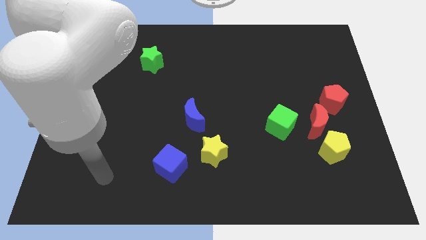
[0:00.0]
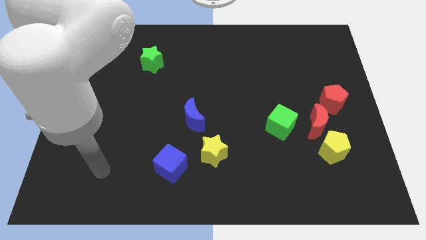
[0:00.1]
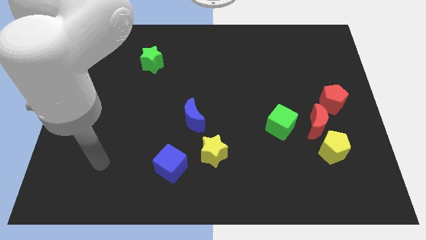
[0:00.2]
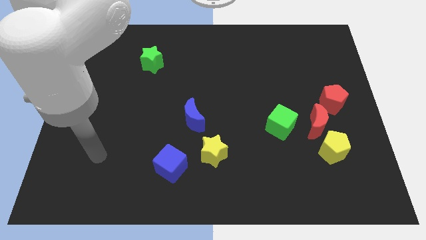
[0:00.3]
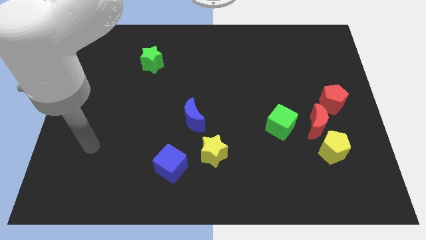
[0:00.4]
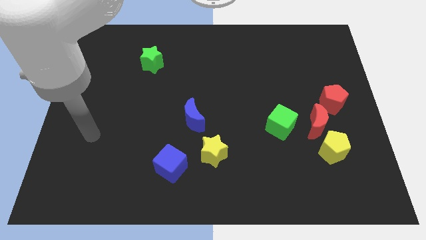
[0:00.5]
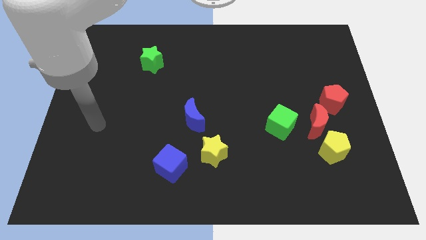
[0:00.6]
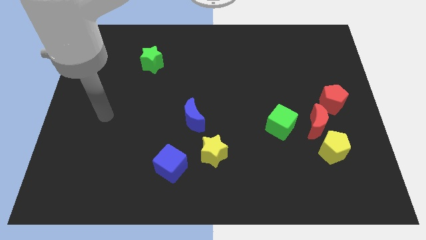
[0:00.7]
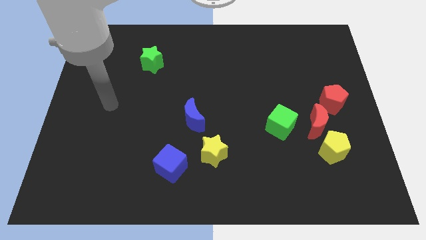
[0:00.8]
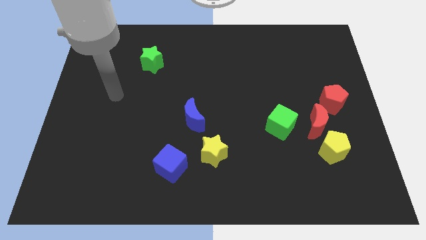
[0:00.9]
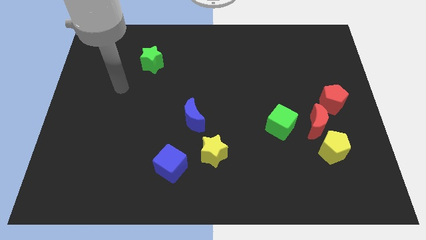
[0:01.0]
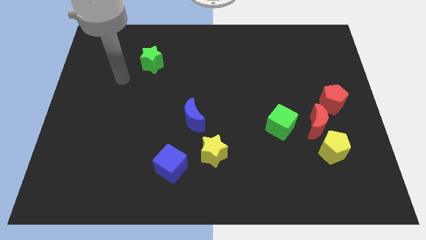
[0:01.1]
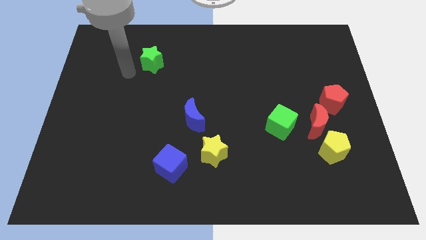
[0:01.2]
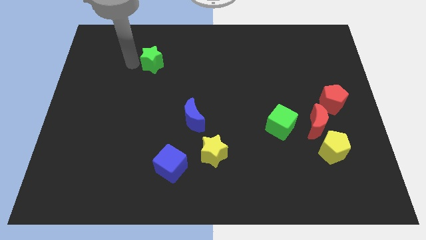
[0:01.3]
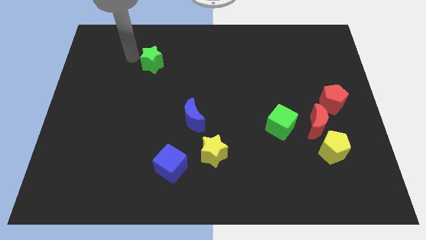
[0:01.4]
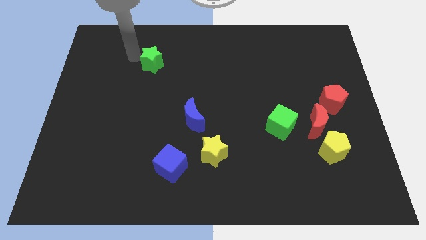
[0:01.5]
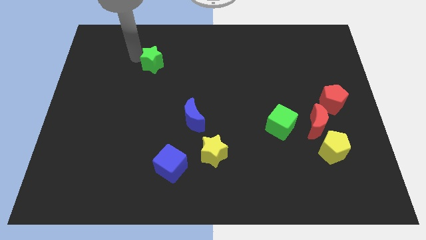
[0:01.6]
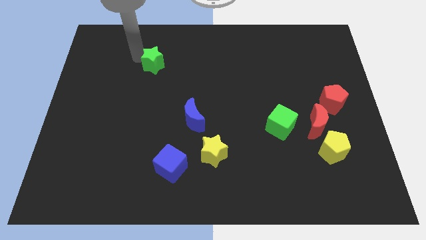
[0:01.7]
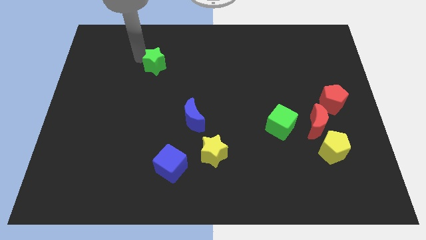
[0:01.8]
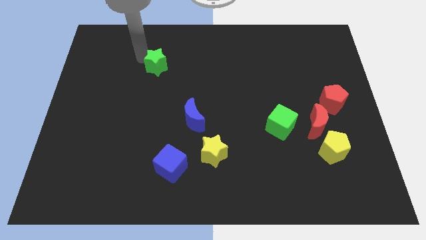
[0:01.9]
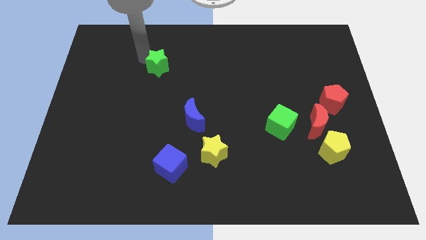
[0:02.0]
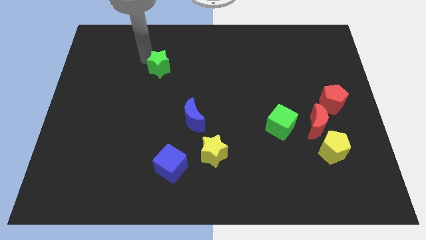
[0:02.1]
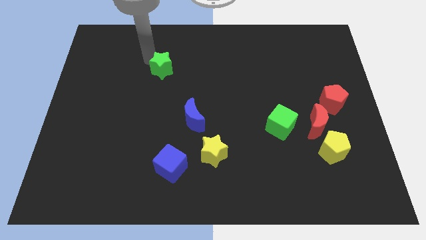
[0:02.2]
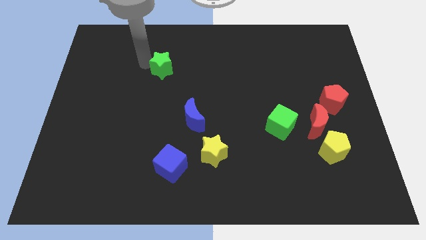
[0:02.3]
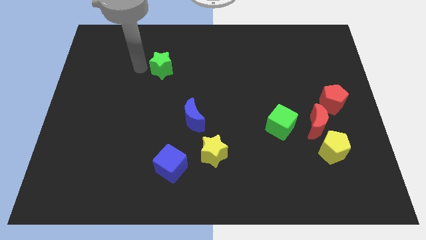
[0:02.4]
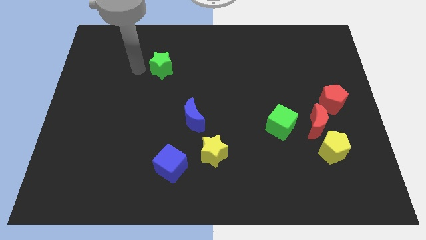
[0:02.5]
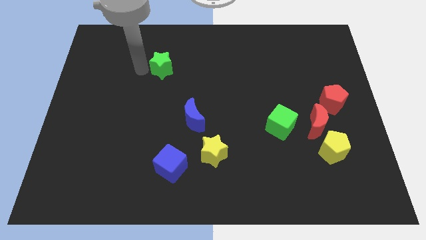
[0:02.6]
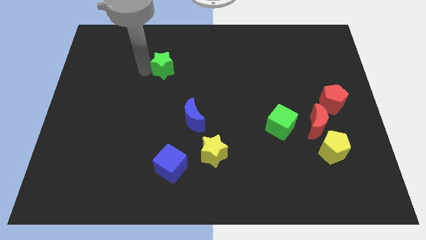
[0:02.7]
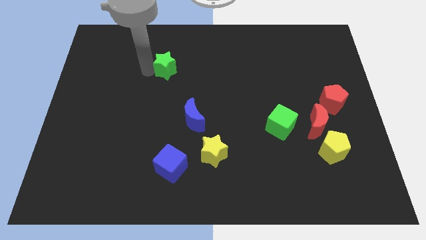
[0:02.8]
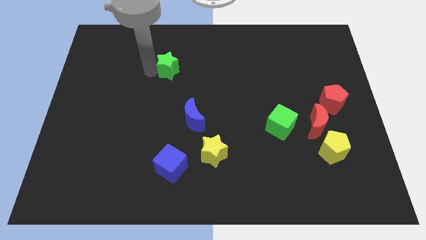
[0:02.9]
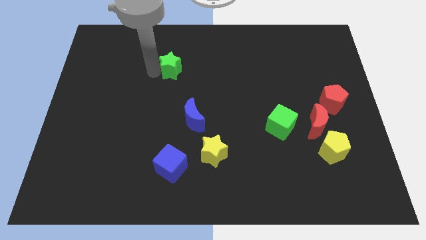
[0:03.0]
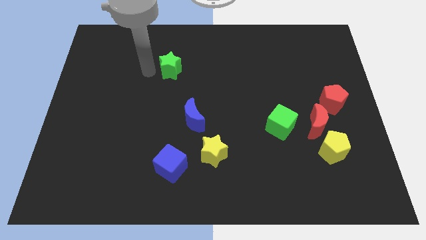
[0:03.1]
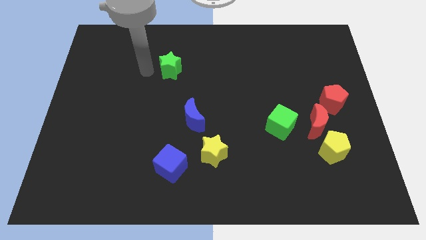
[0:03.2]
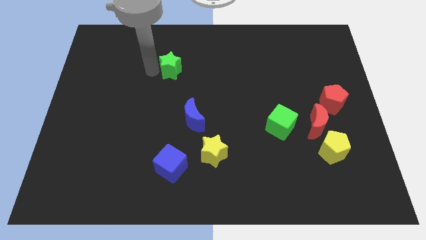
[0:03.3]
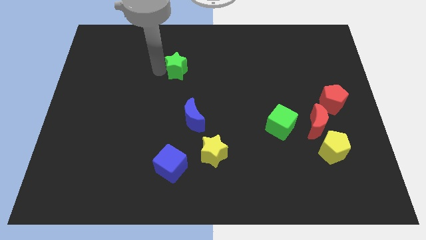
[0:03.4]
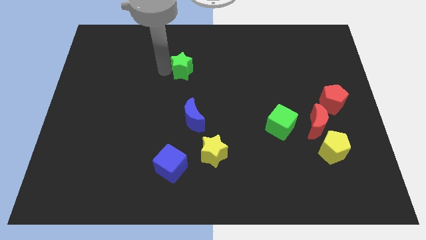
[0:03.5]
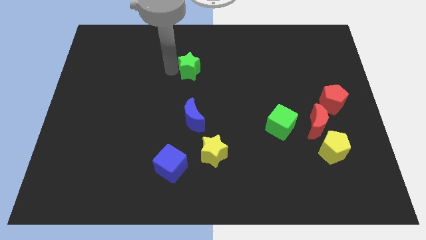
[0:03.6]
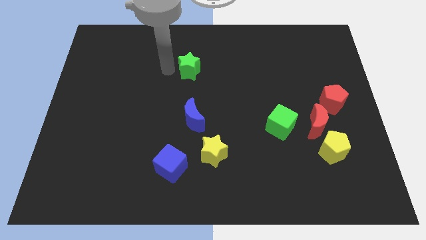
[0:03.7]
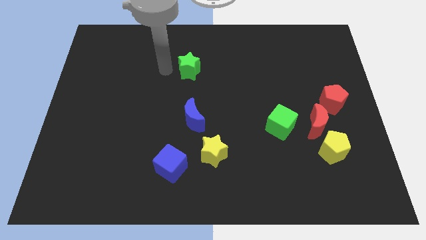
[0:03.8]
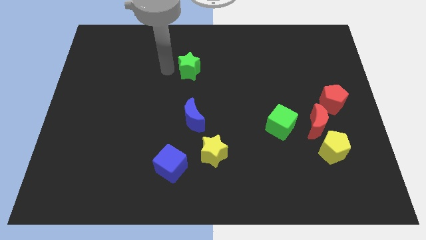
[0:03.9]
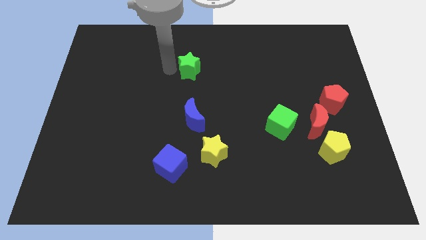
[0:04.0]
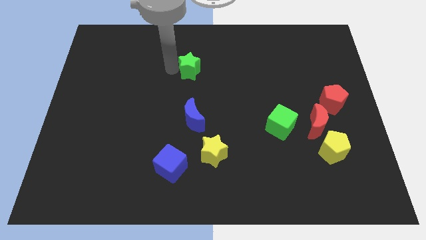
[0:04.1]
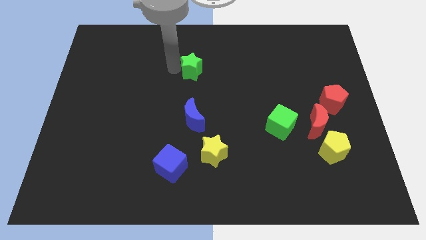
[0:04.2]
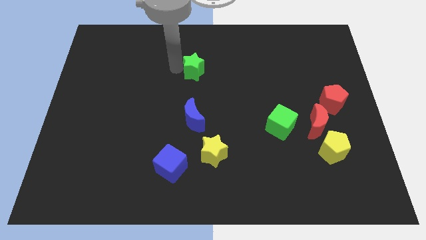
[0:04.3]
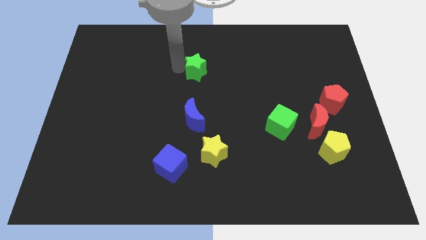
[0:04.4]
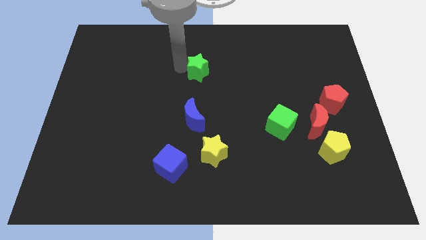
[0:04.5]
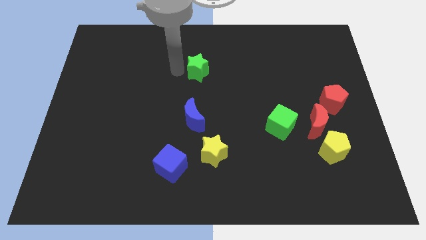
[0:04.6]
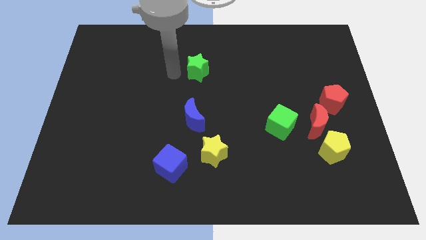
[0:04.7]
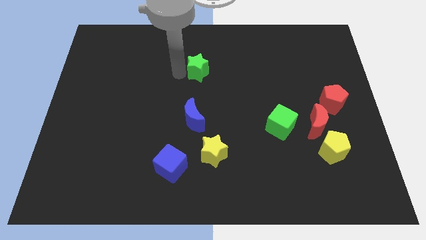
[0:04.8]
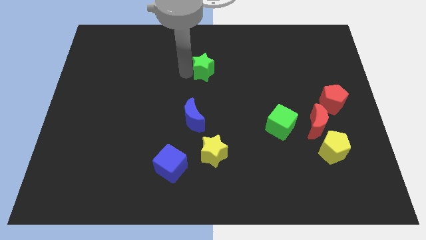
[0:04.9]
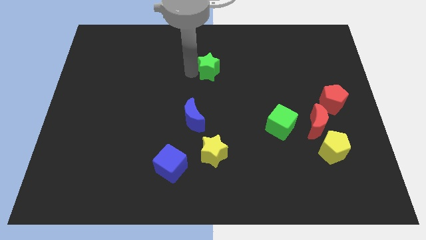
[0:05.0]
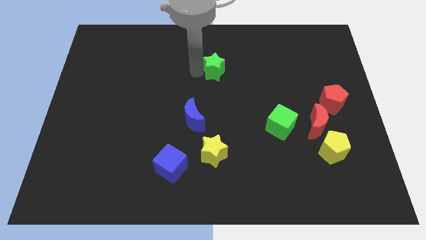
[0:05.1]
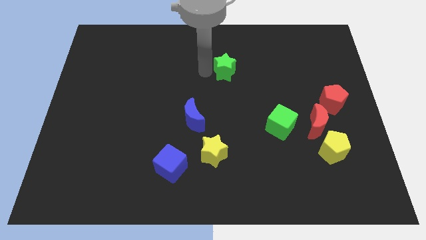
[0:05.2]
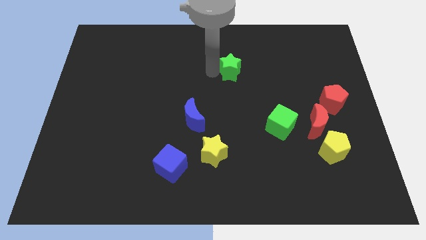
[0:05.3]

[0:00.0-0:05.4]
push the green star to the right

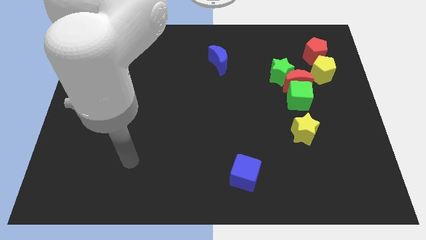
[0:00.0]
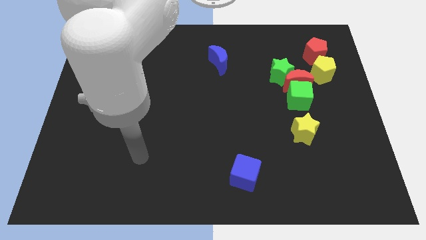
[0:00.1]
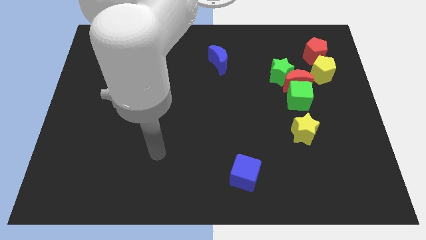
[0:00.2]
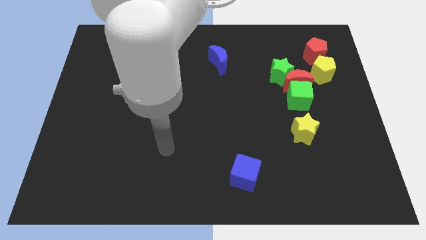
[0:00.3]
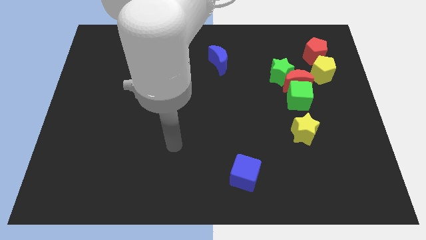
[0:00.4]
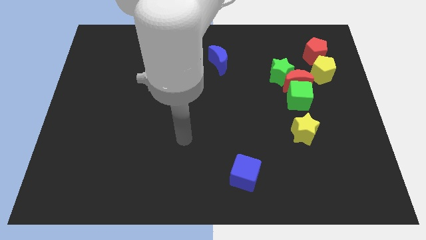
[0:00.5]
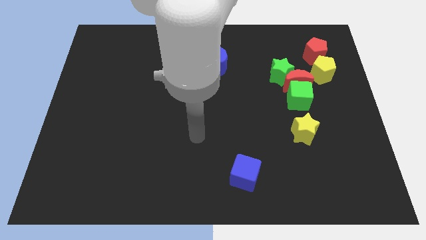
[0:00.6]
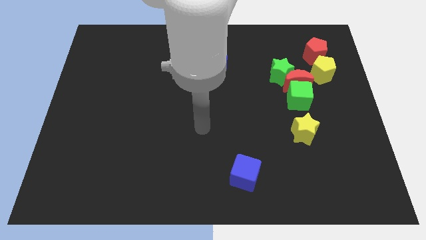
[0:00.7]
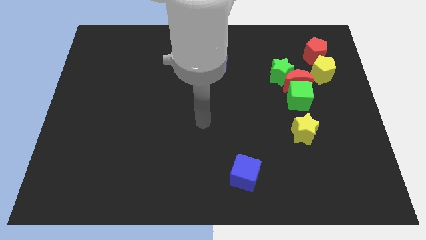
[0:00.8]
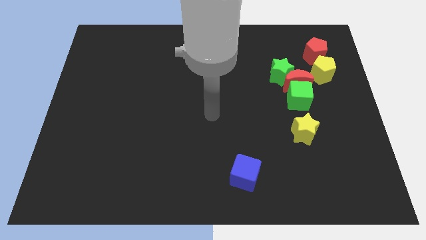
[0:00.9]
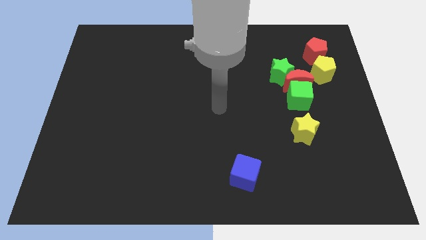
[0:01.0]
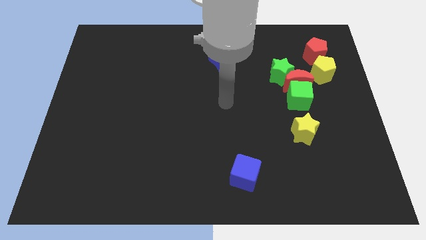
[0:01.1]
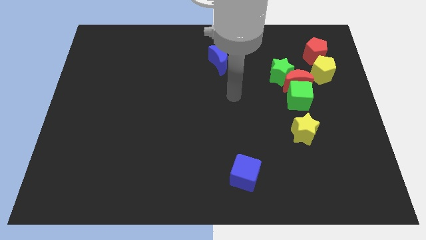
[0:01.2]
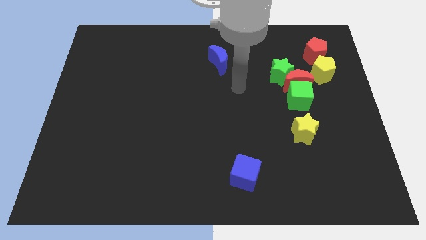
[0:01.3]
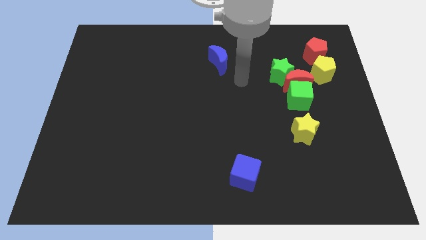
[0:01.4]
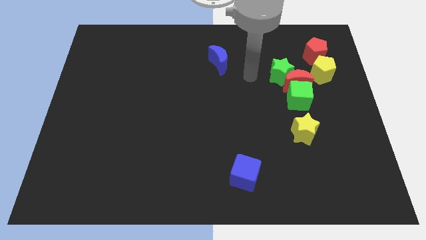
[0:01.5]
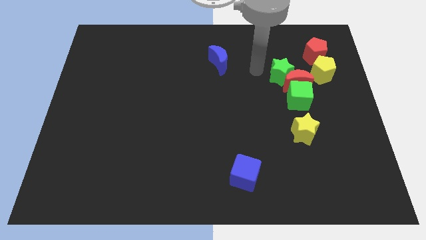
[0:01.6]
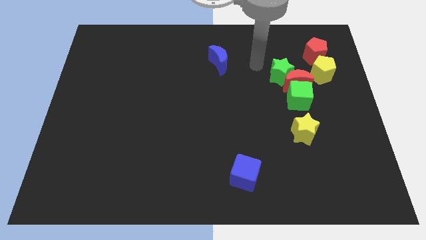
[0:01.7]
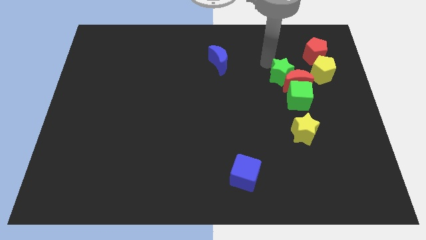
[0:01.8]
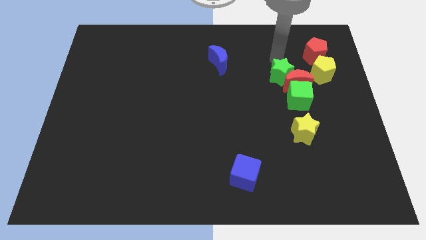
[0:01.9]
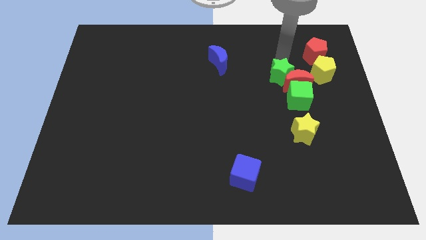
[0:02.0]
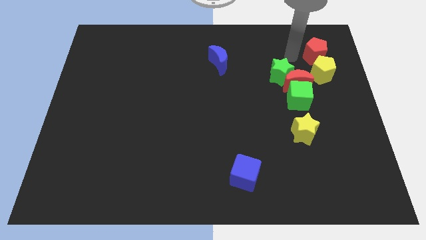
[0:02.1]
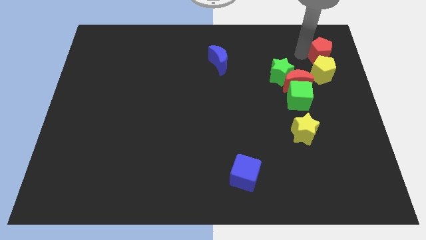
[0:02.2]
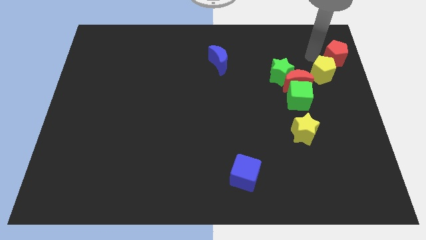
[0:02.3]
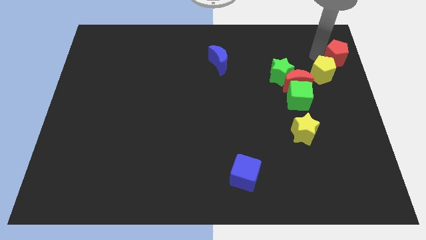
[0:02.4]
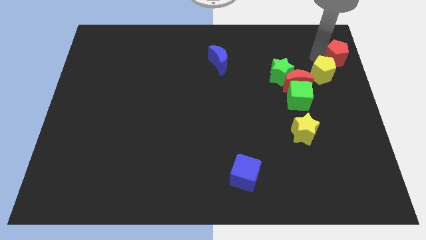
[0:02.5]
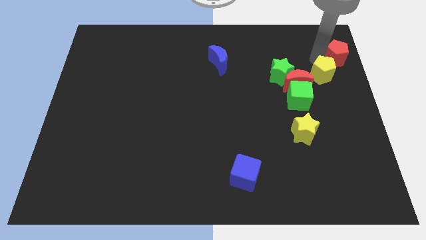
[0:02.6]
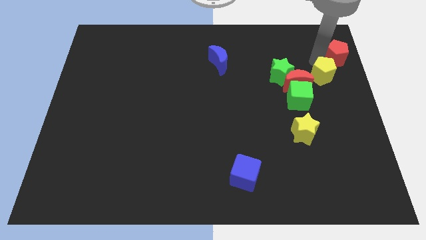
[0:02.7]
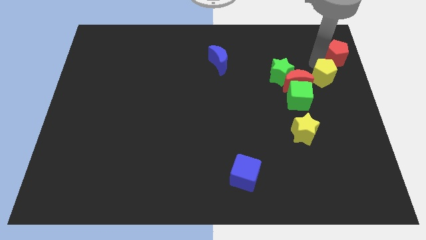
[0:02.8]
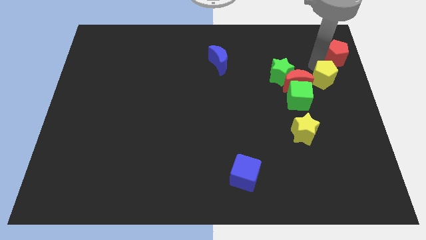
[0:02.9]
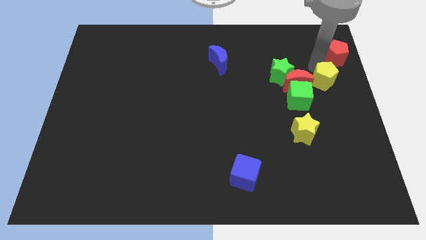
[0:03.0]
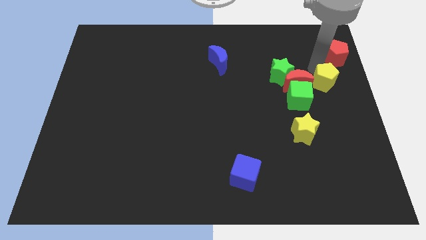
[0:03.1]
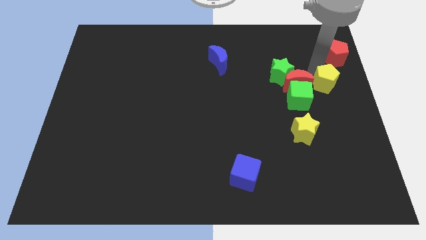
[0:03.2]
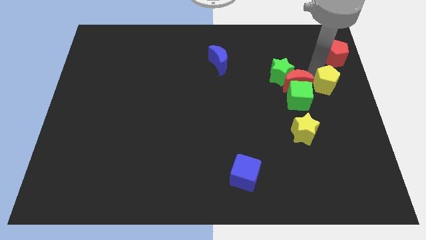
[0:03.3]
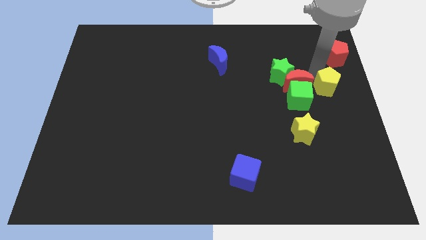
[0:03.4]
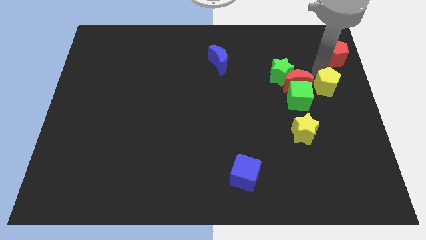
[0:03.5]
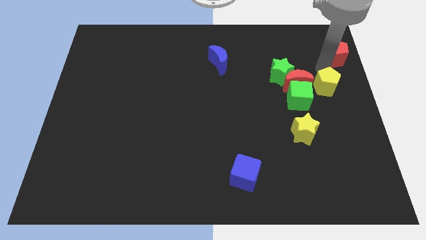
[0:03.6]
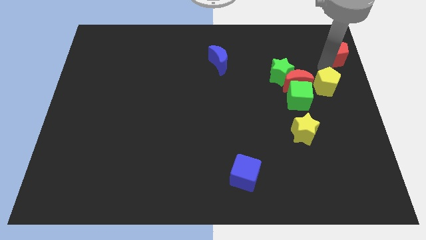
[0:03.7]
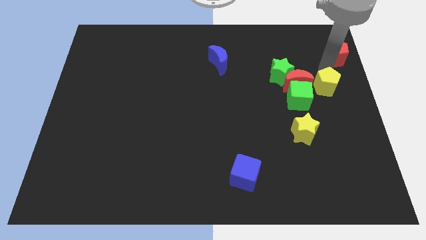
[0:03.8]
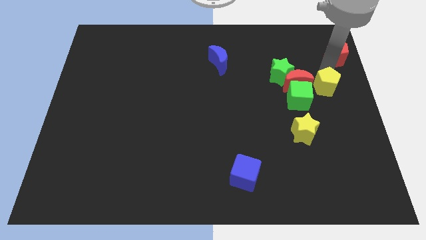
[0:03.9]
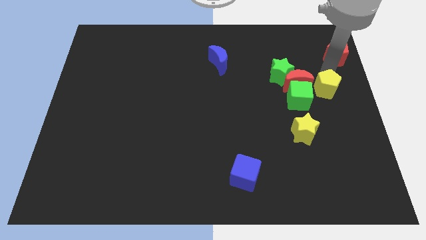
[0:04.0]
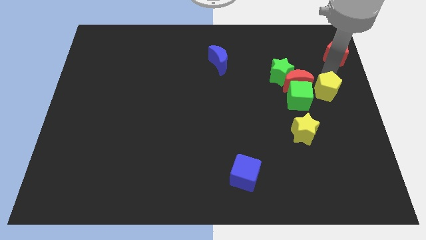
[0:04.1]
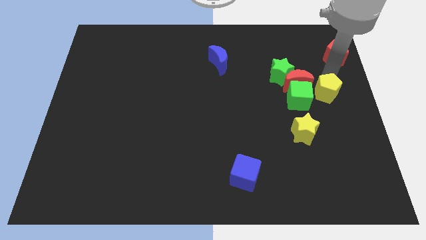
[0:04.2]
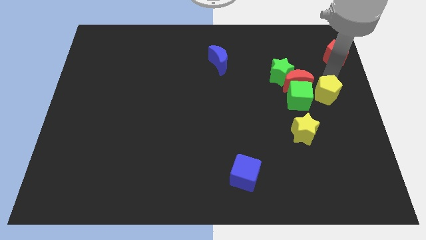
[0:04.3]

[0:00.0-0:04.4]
move the yellow pentagon somewhat down
